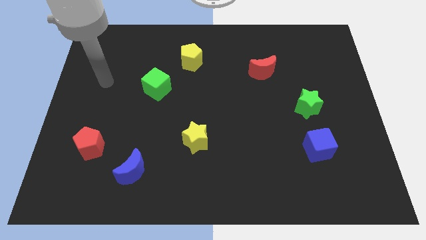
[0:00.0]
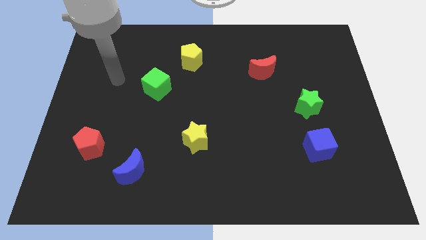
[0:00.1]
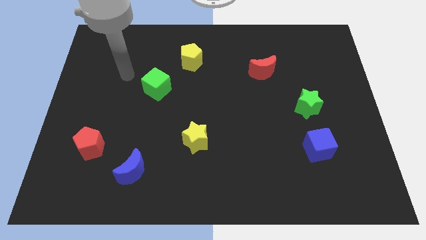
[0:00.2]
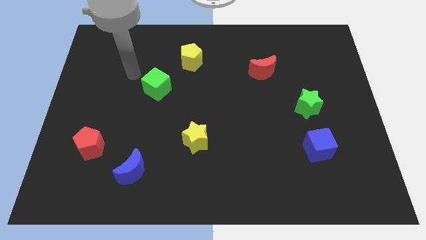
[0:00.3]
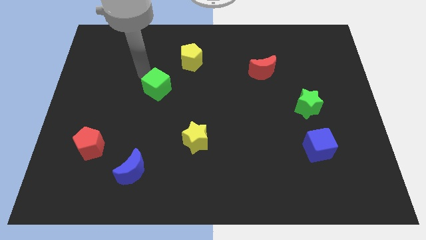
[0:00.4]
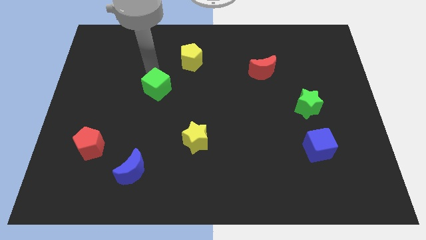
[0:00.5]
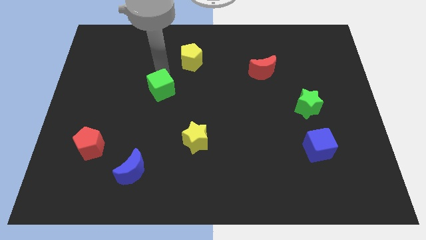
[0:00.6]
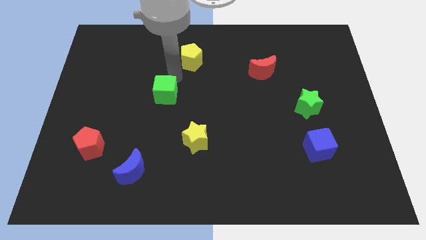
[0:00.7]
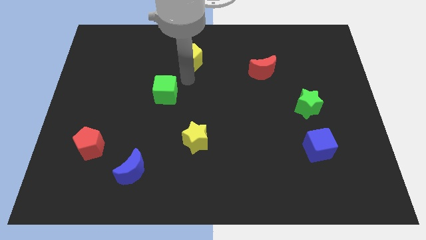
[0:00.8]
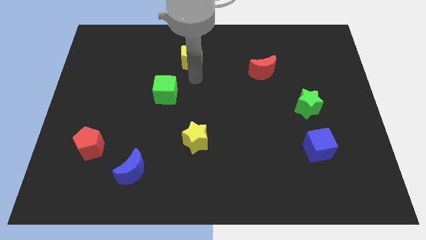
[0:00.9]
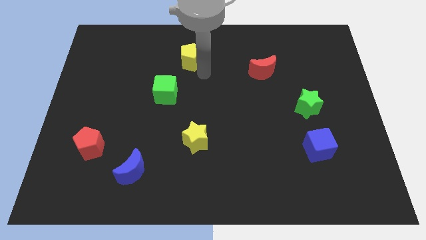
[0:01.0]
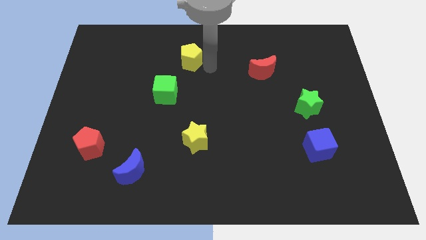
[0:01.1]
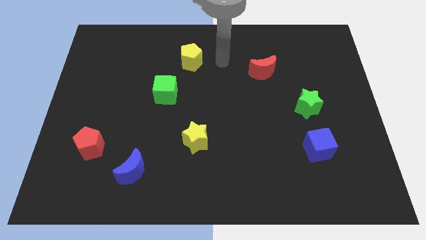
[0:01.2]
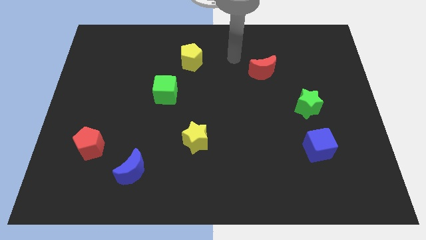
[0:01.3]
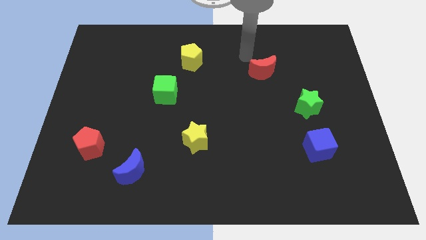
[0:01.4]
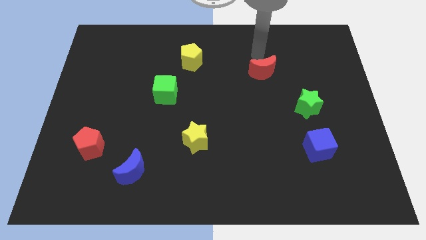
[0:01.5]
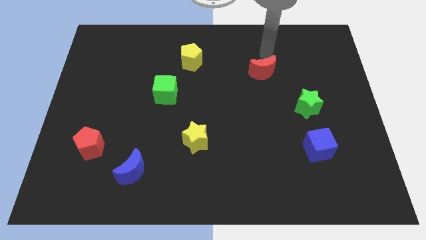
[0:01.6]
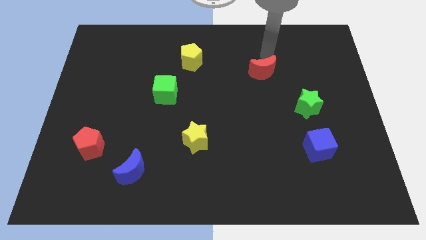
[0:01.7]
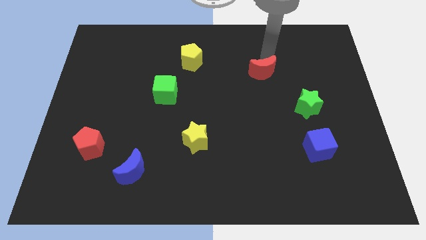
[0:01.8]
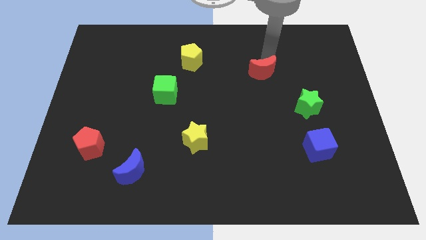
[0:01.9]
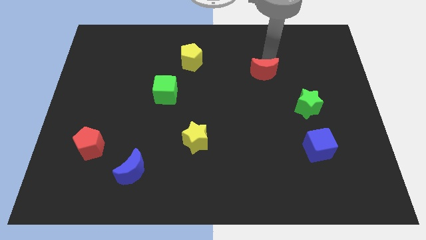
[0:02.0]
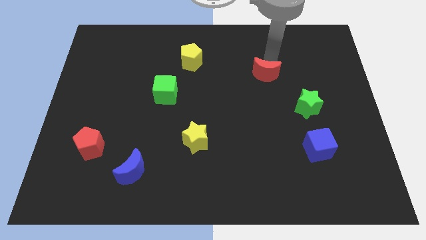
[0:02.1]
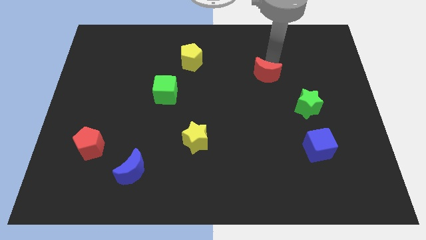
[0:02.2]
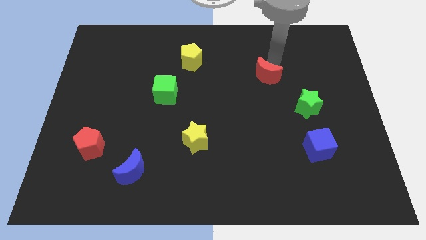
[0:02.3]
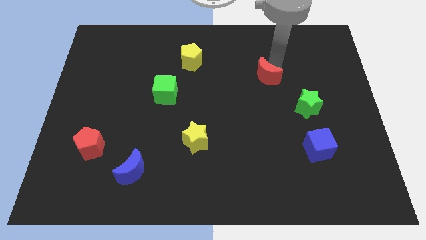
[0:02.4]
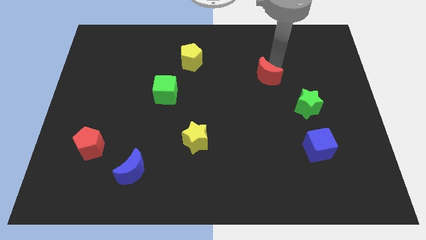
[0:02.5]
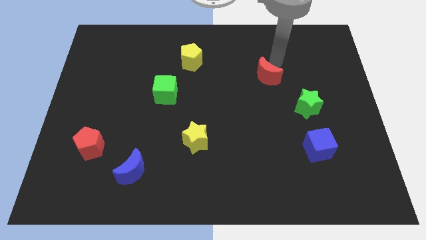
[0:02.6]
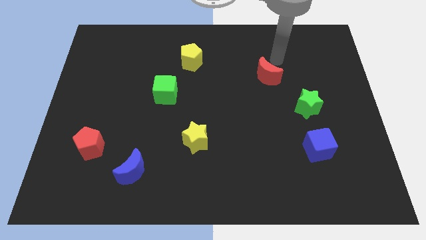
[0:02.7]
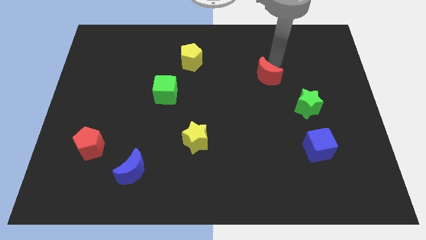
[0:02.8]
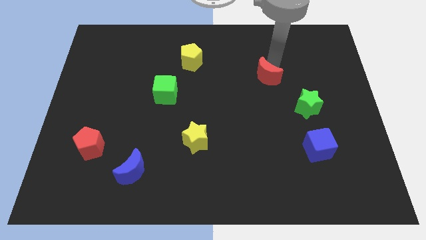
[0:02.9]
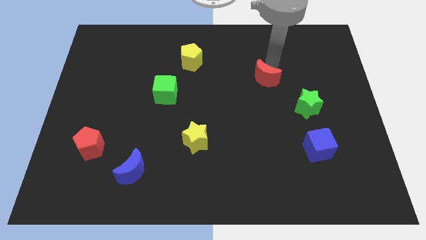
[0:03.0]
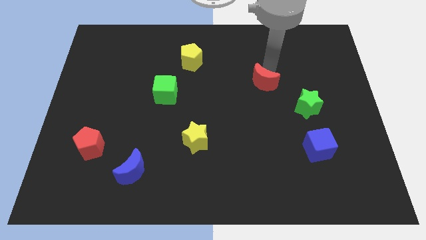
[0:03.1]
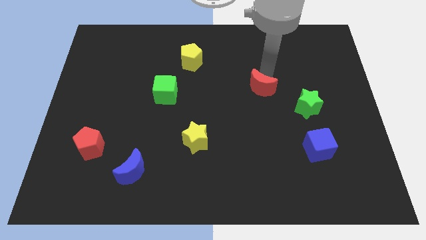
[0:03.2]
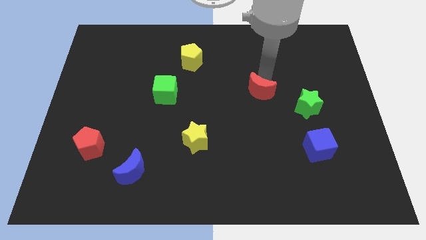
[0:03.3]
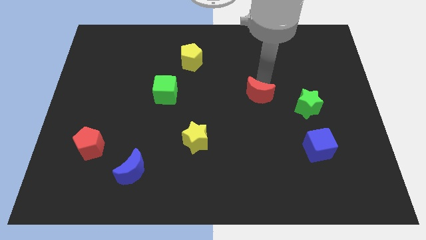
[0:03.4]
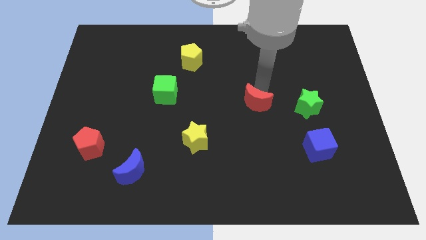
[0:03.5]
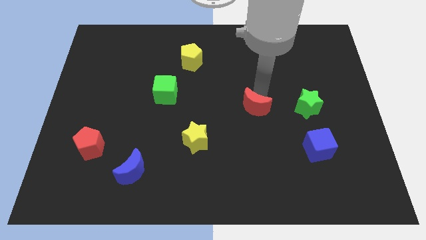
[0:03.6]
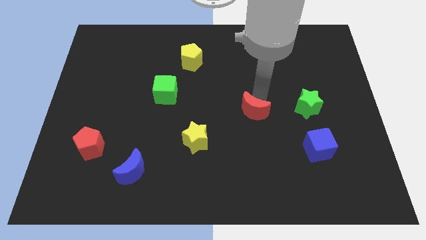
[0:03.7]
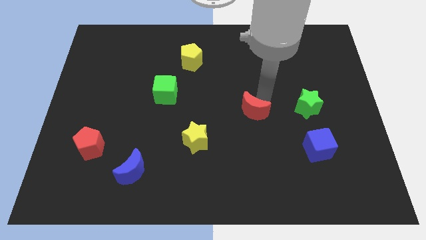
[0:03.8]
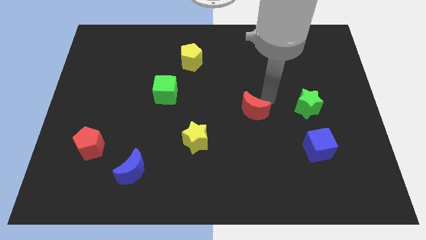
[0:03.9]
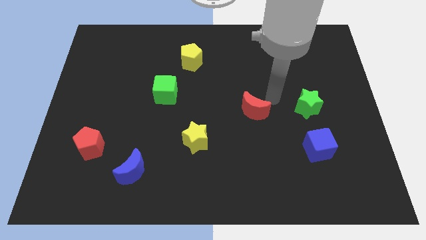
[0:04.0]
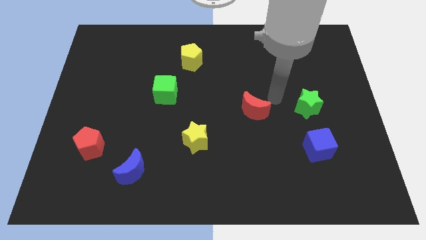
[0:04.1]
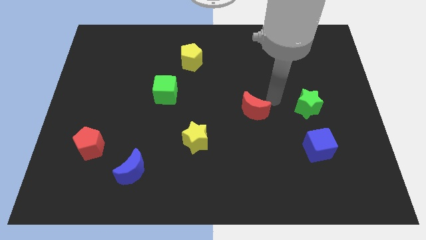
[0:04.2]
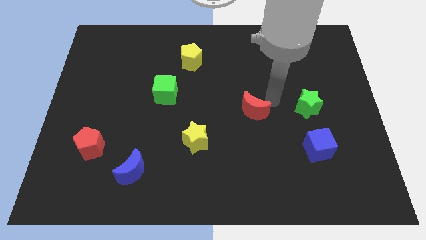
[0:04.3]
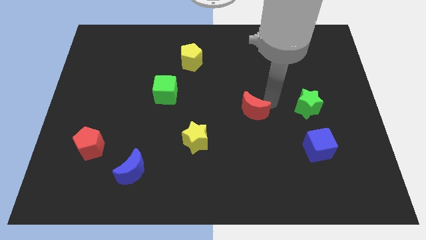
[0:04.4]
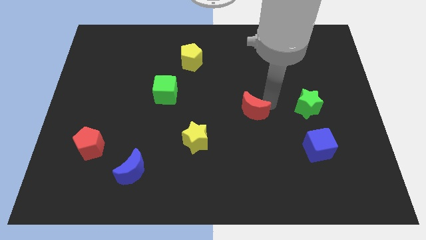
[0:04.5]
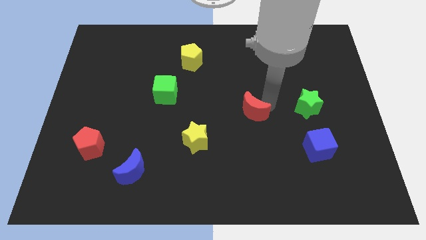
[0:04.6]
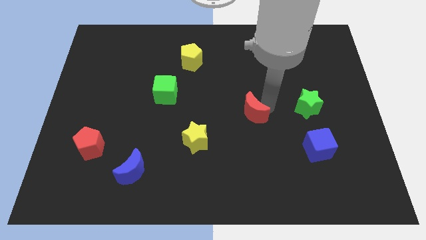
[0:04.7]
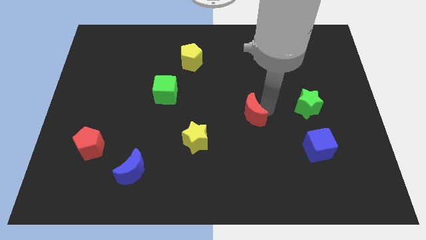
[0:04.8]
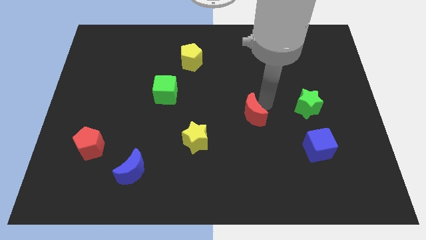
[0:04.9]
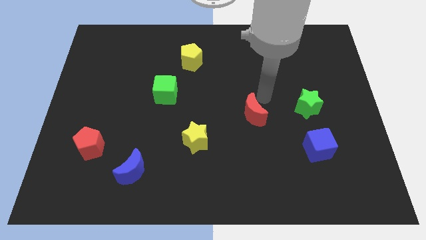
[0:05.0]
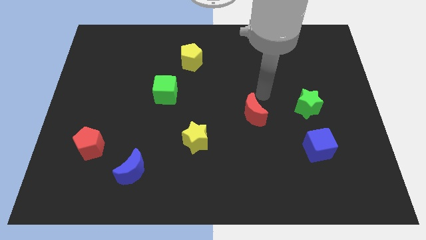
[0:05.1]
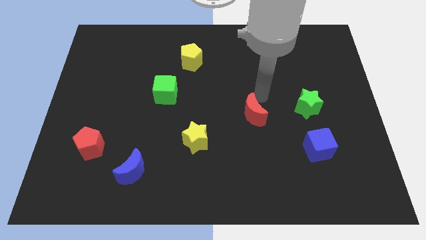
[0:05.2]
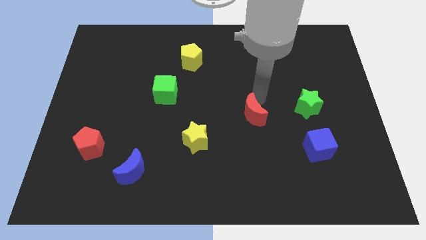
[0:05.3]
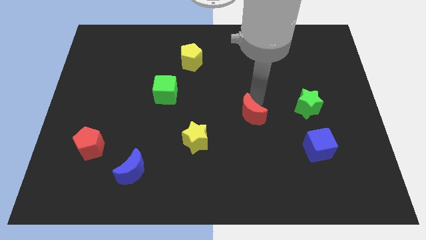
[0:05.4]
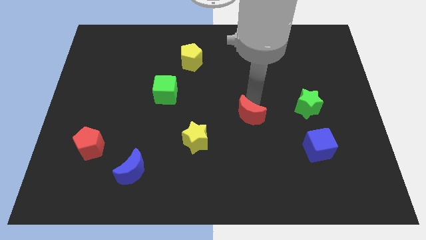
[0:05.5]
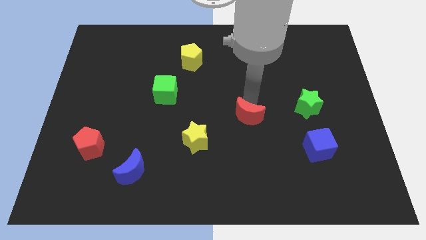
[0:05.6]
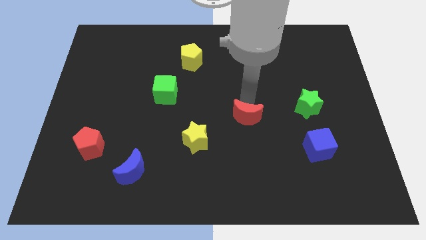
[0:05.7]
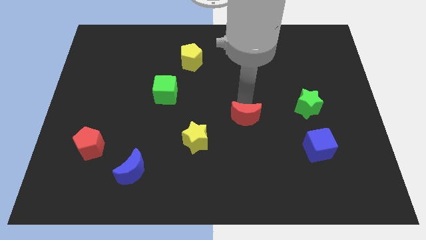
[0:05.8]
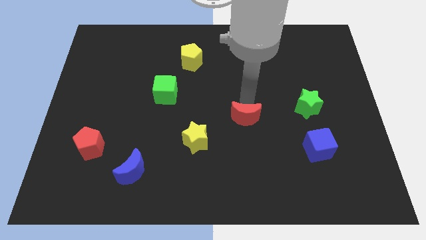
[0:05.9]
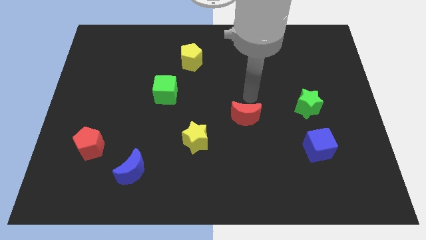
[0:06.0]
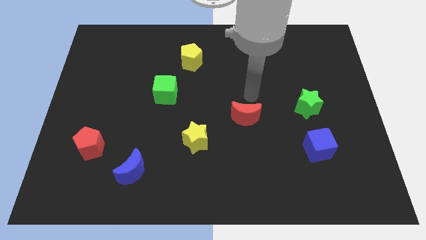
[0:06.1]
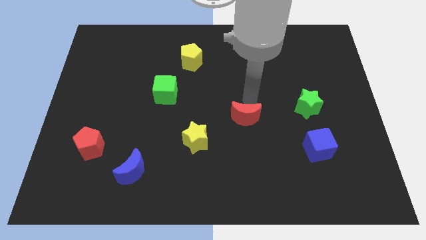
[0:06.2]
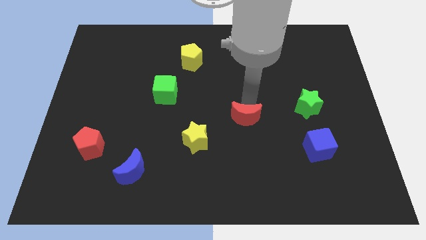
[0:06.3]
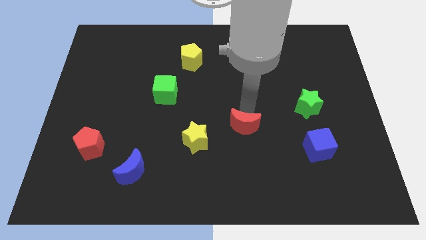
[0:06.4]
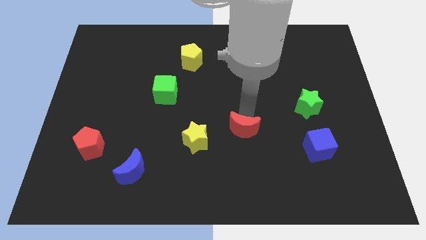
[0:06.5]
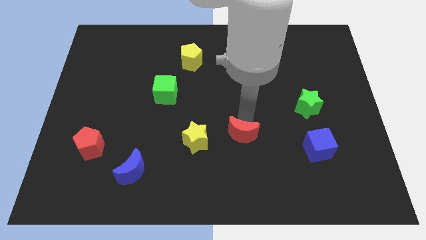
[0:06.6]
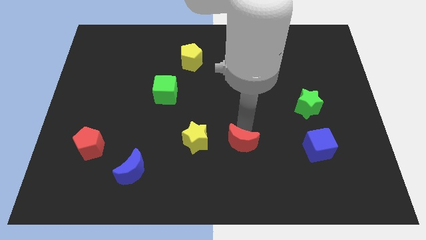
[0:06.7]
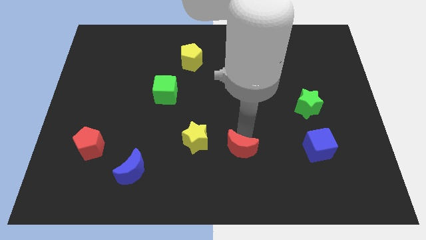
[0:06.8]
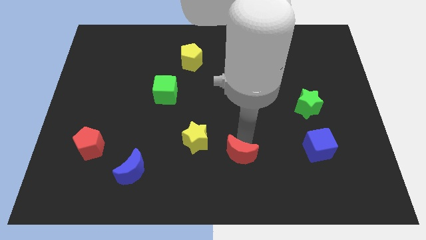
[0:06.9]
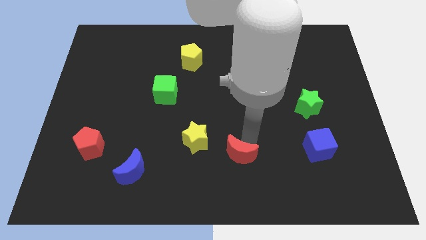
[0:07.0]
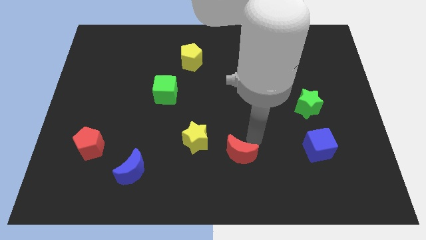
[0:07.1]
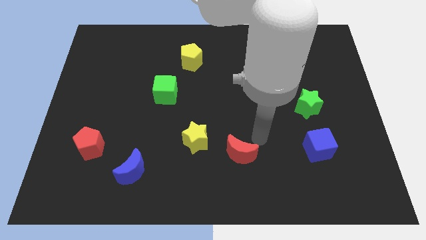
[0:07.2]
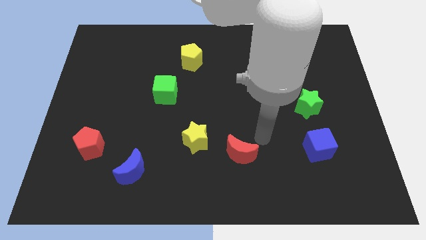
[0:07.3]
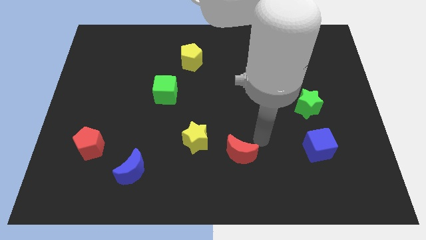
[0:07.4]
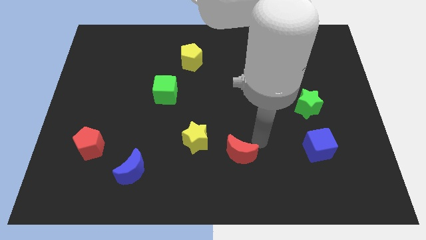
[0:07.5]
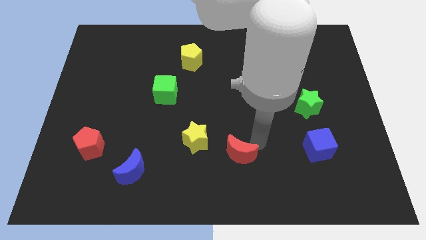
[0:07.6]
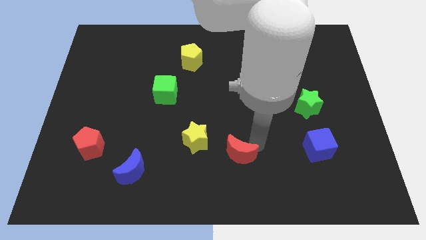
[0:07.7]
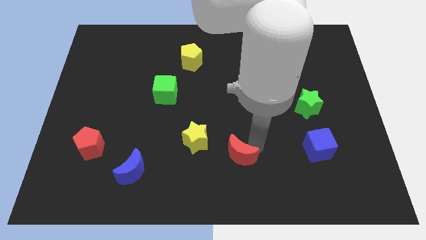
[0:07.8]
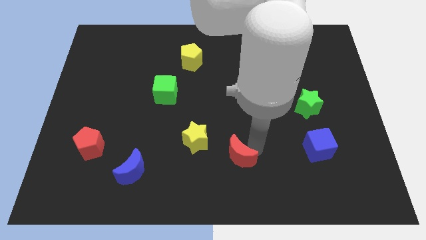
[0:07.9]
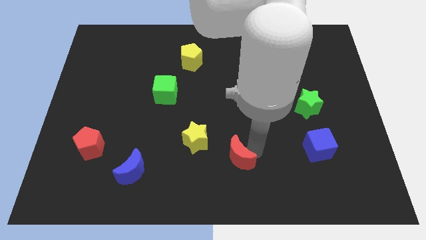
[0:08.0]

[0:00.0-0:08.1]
slide the red moon to the bottom side
